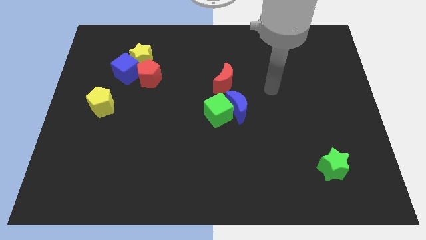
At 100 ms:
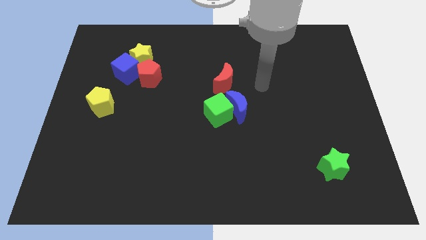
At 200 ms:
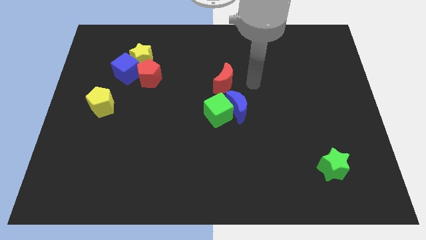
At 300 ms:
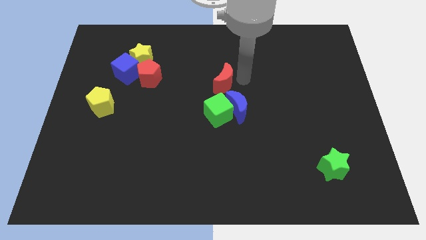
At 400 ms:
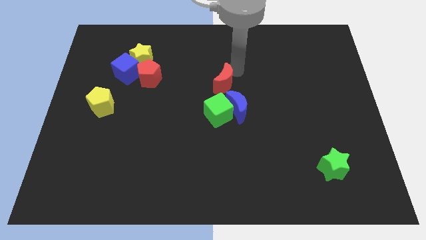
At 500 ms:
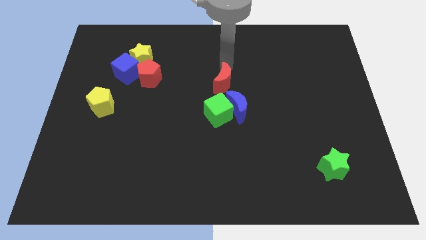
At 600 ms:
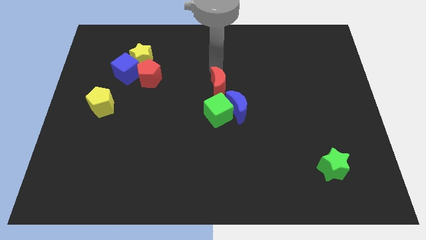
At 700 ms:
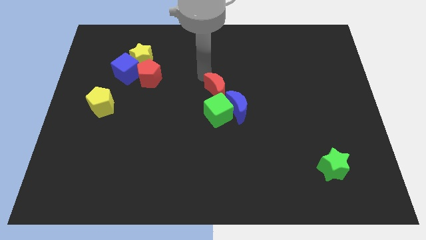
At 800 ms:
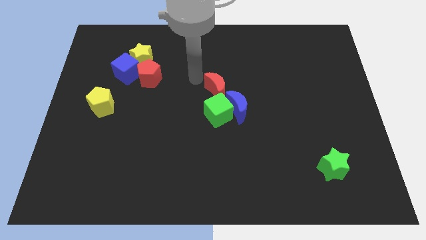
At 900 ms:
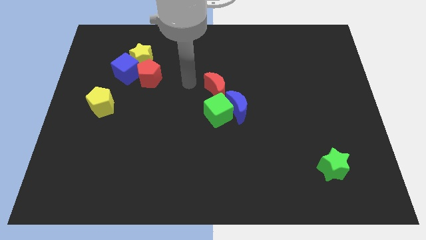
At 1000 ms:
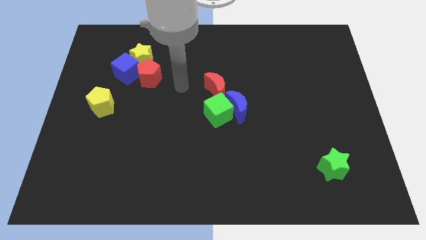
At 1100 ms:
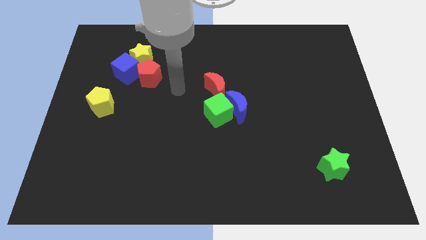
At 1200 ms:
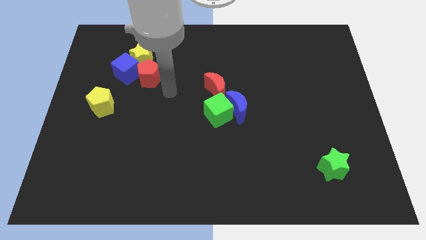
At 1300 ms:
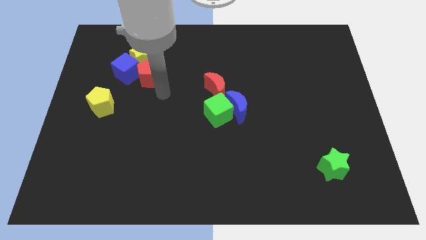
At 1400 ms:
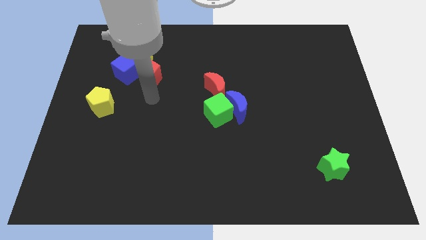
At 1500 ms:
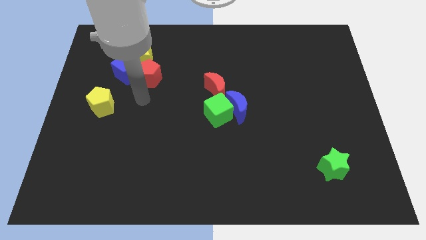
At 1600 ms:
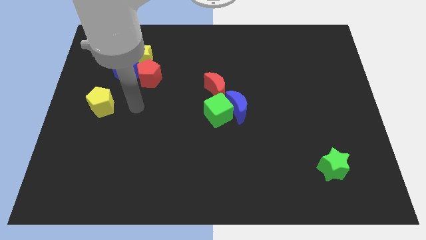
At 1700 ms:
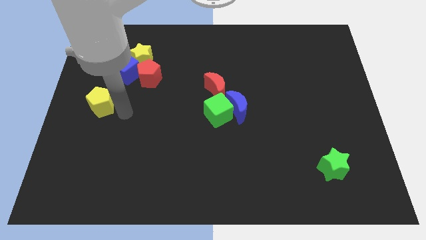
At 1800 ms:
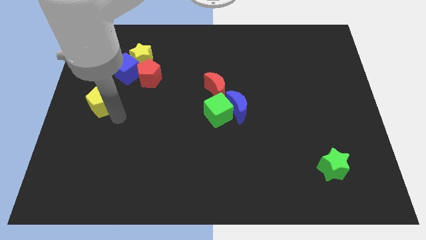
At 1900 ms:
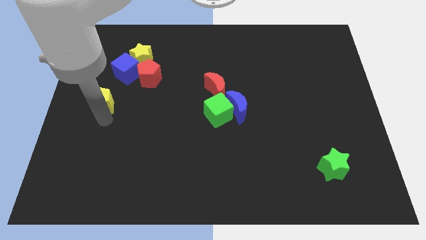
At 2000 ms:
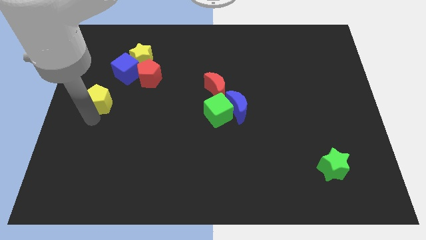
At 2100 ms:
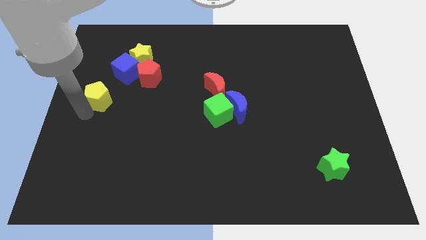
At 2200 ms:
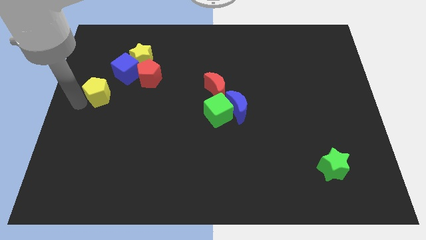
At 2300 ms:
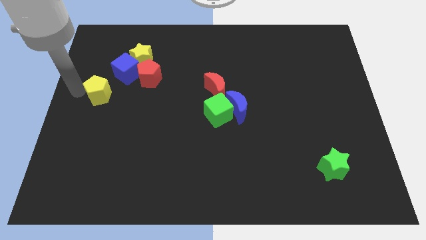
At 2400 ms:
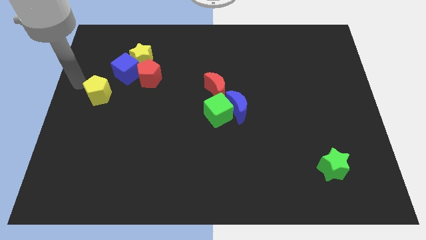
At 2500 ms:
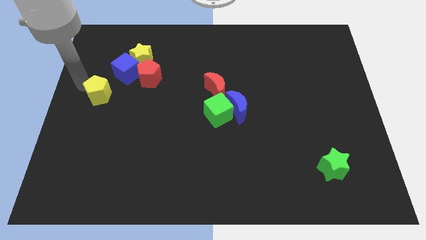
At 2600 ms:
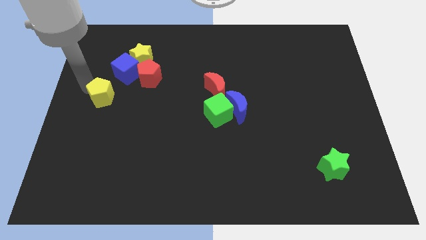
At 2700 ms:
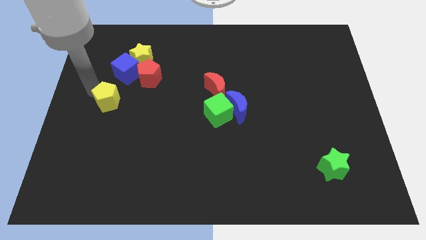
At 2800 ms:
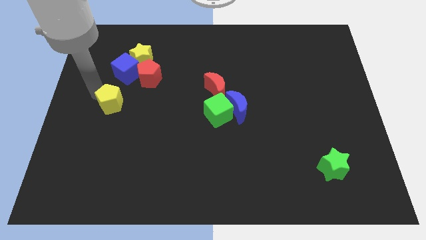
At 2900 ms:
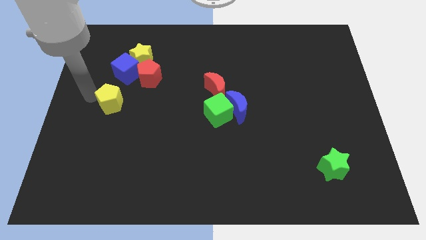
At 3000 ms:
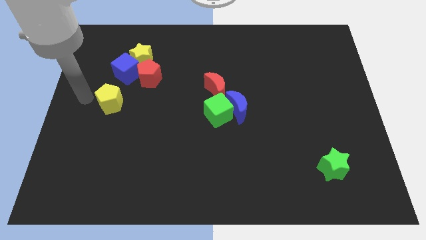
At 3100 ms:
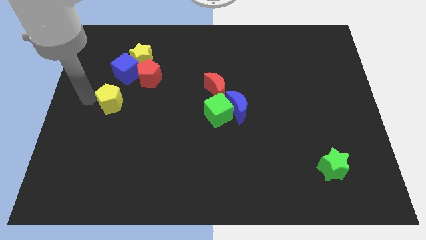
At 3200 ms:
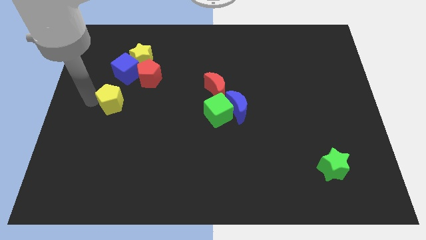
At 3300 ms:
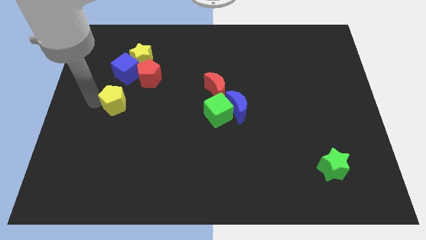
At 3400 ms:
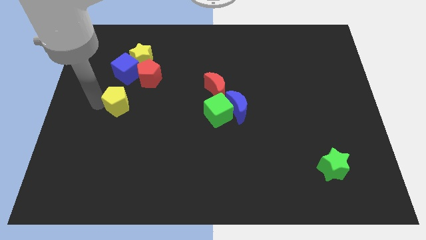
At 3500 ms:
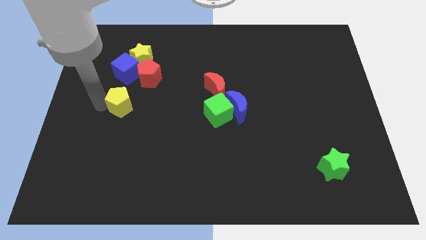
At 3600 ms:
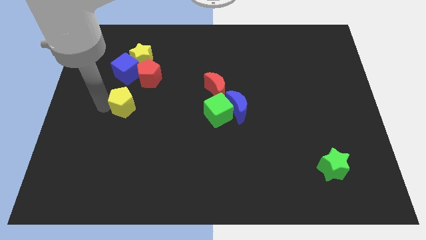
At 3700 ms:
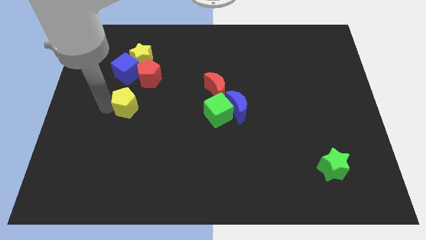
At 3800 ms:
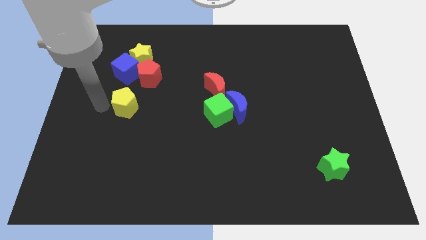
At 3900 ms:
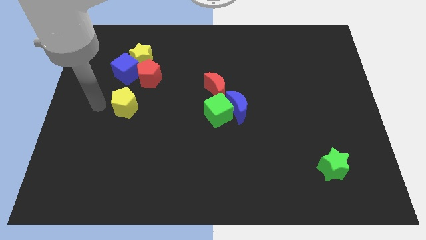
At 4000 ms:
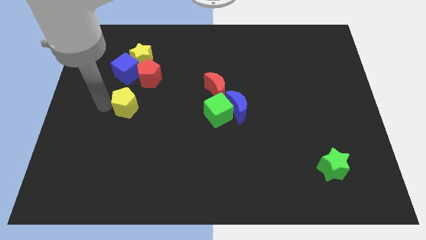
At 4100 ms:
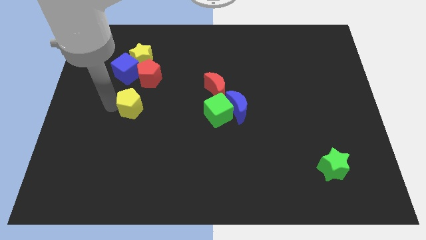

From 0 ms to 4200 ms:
move the yellow pentagon a little to the right

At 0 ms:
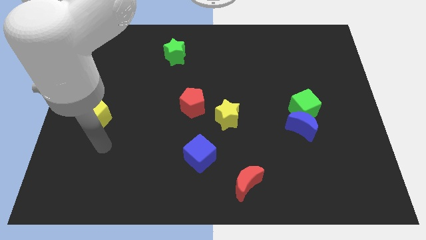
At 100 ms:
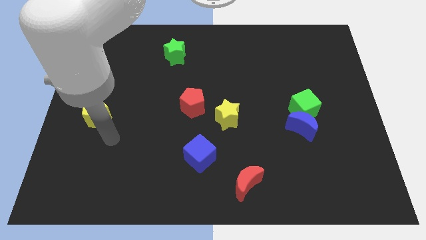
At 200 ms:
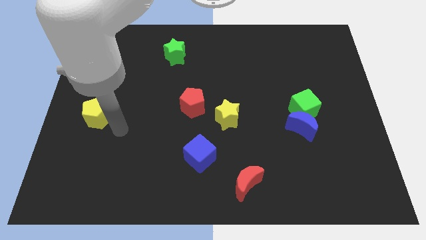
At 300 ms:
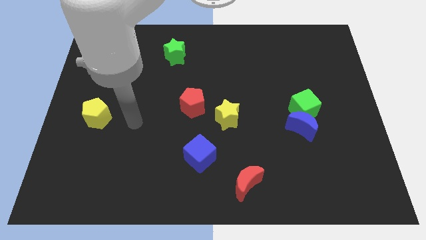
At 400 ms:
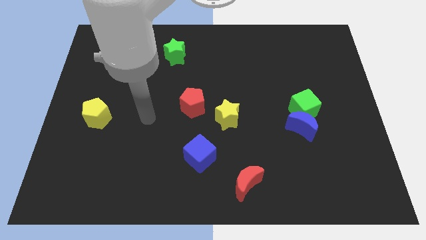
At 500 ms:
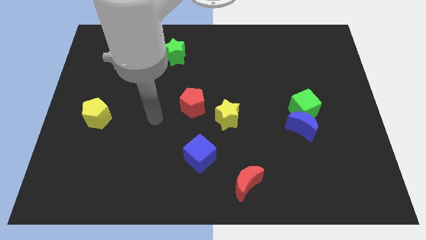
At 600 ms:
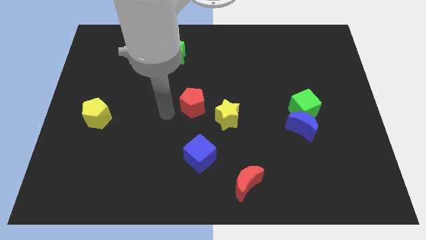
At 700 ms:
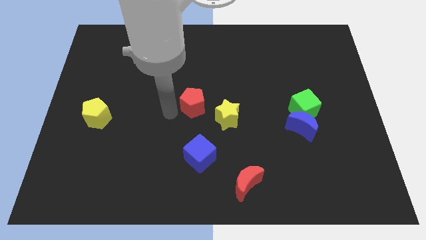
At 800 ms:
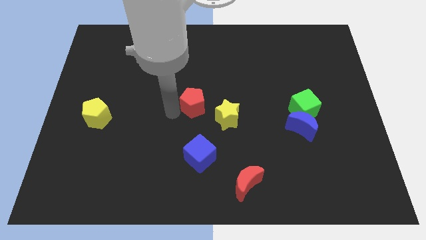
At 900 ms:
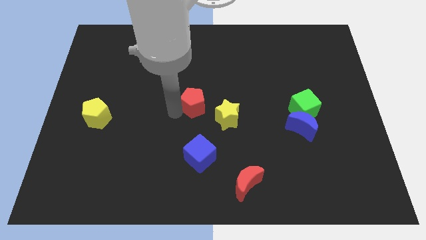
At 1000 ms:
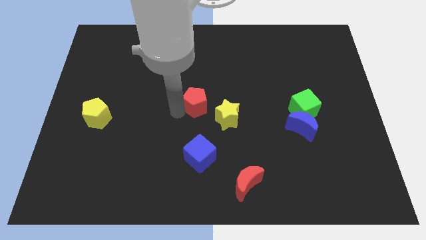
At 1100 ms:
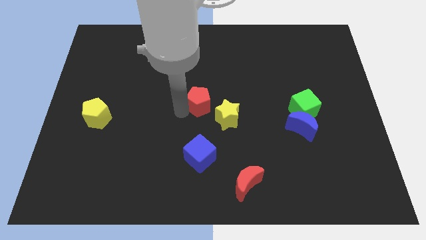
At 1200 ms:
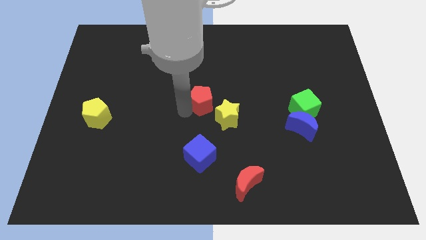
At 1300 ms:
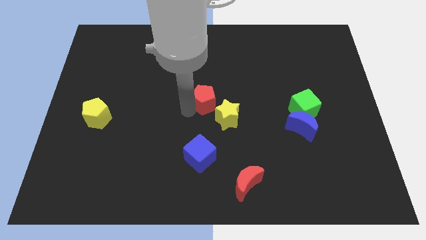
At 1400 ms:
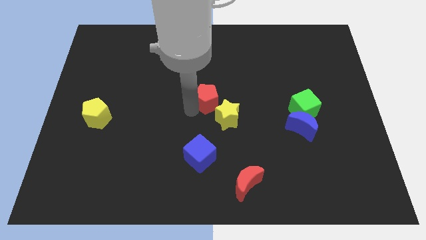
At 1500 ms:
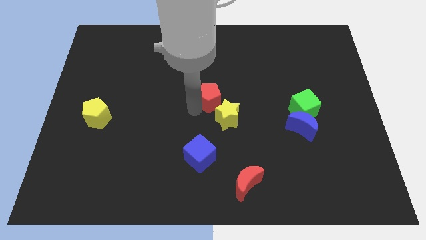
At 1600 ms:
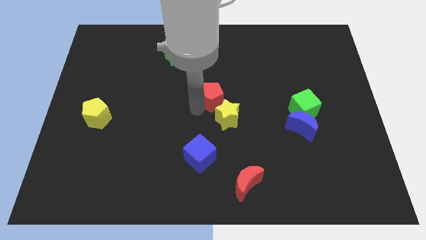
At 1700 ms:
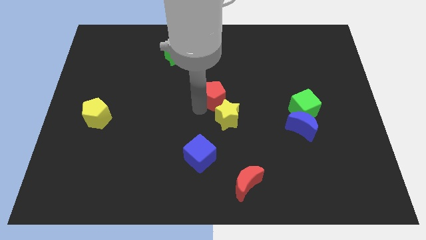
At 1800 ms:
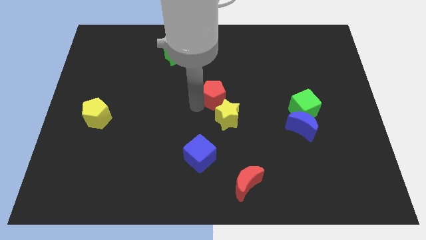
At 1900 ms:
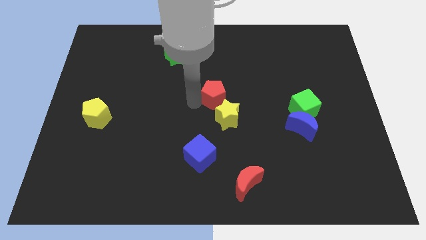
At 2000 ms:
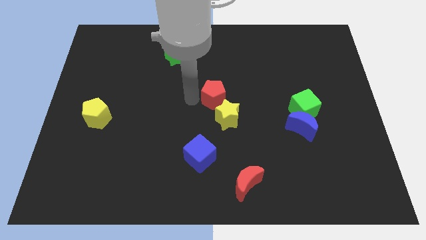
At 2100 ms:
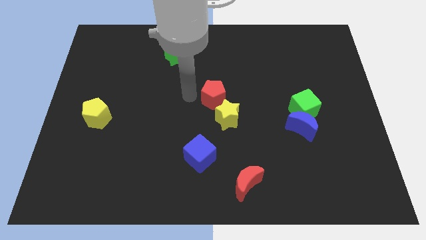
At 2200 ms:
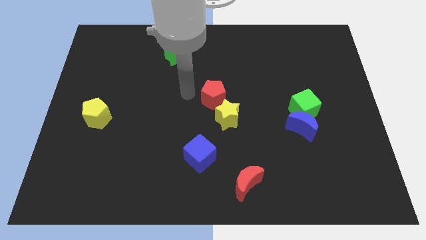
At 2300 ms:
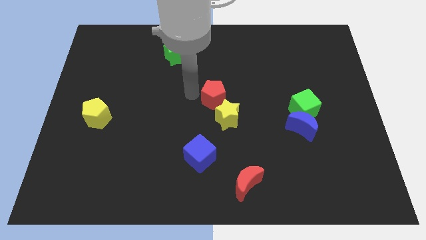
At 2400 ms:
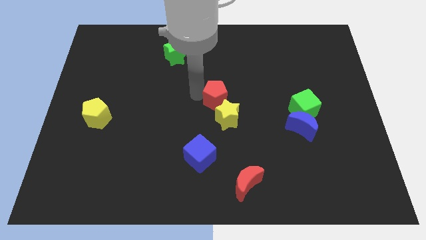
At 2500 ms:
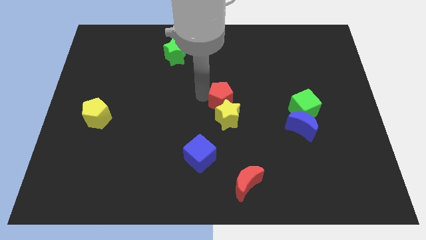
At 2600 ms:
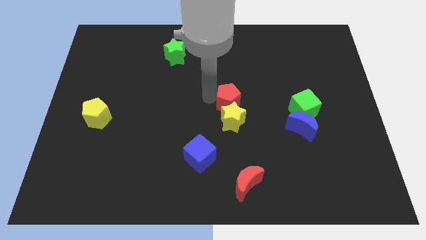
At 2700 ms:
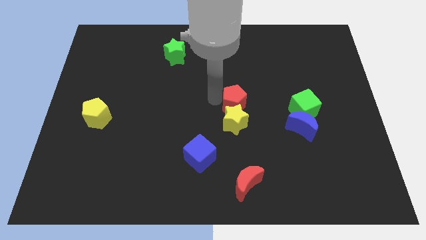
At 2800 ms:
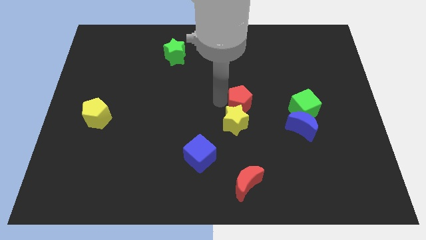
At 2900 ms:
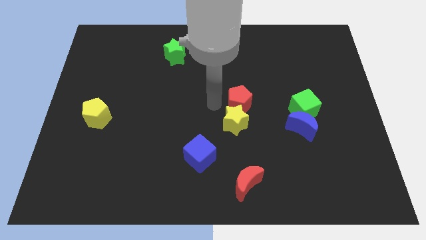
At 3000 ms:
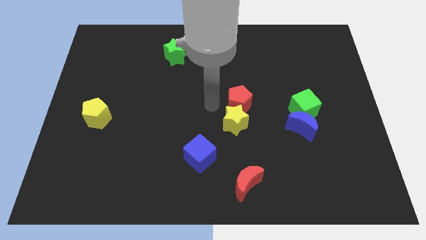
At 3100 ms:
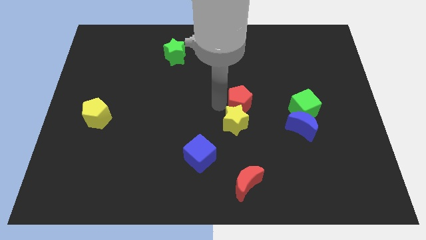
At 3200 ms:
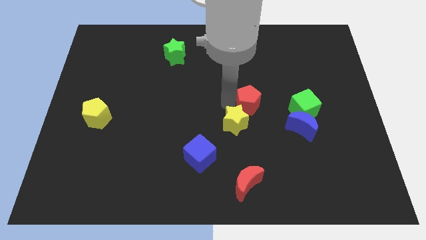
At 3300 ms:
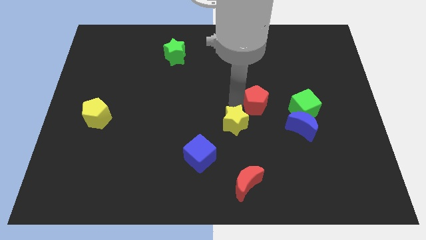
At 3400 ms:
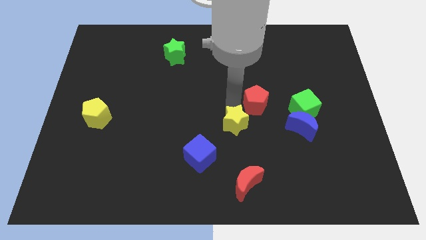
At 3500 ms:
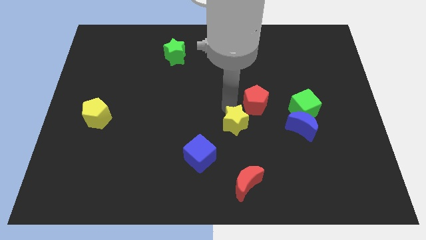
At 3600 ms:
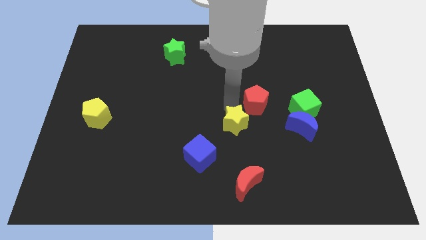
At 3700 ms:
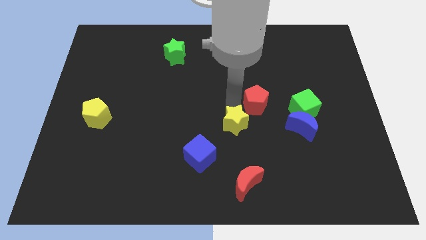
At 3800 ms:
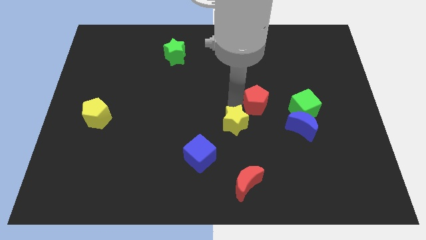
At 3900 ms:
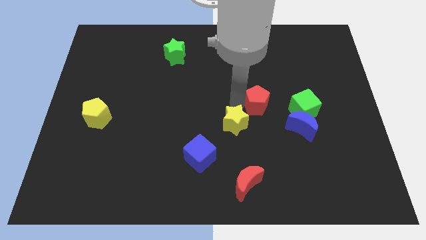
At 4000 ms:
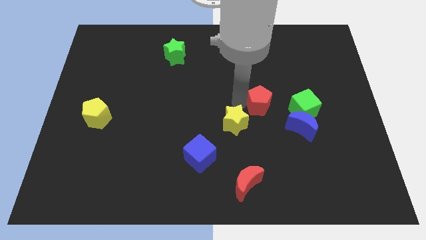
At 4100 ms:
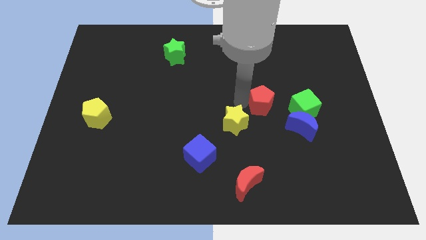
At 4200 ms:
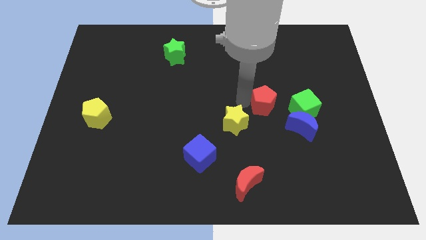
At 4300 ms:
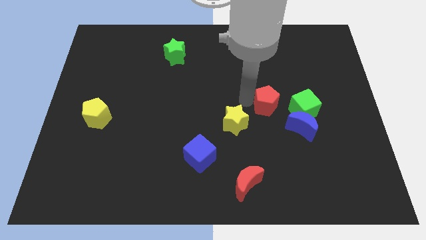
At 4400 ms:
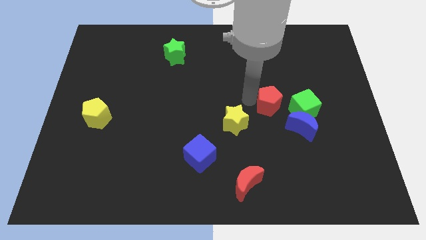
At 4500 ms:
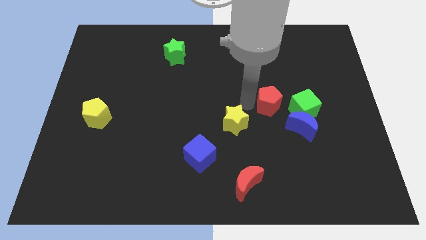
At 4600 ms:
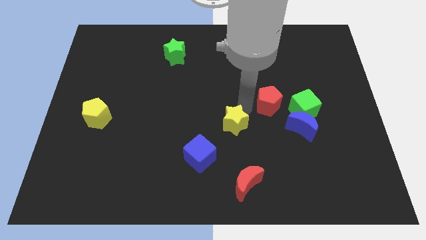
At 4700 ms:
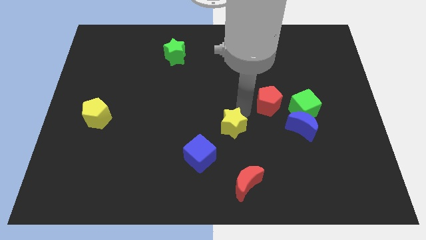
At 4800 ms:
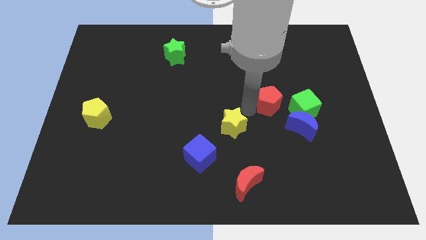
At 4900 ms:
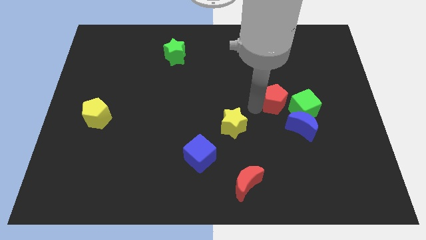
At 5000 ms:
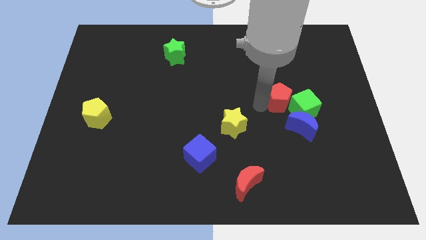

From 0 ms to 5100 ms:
move the red pentagon right
